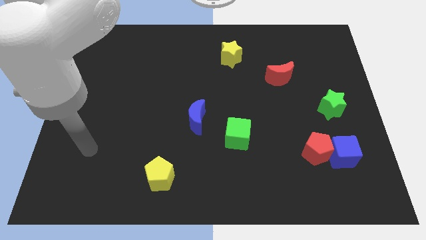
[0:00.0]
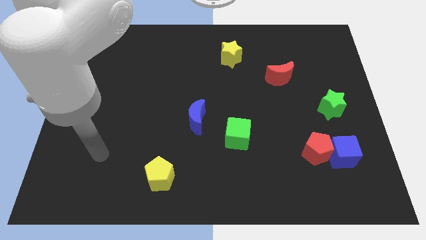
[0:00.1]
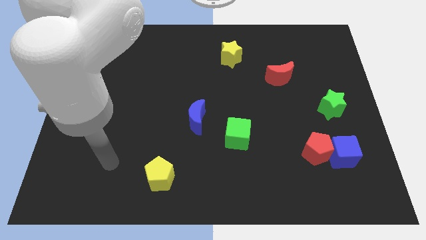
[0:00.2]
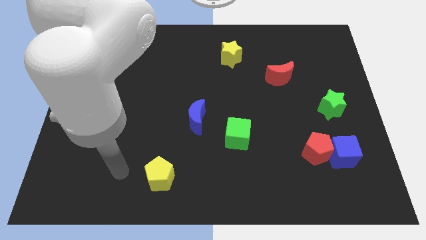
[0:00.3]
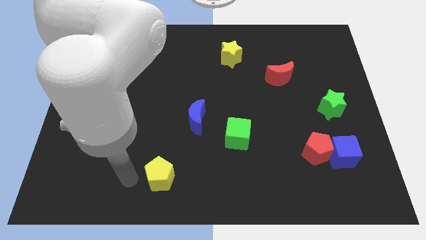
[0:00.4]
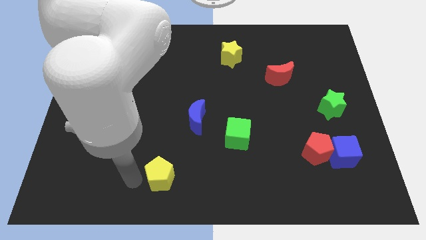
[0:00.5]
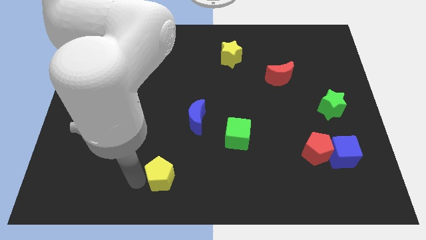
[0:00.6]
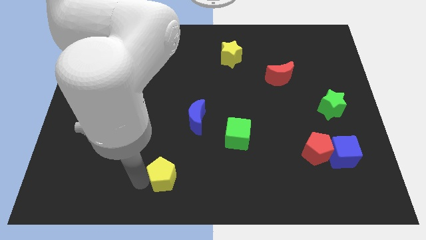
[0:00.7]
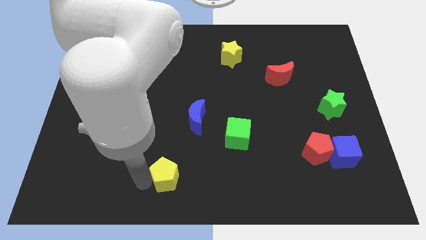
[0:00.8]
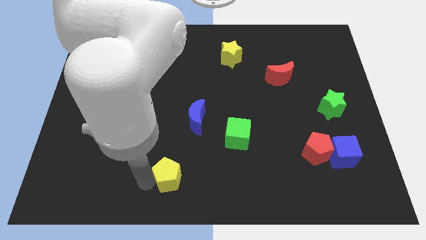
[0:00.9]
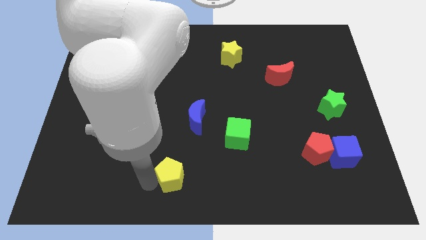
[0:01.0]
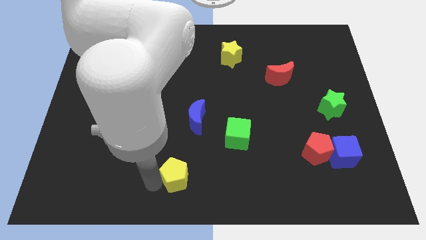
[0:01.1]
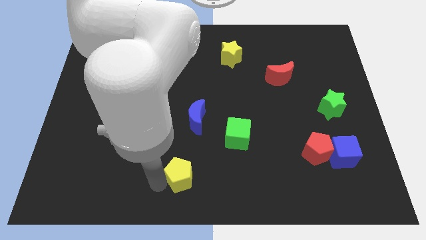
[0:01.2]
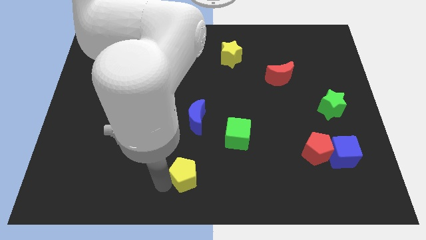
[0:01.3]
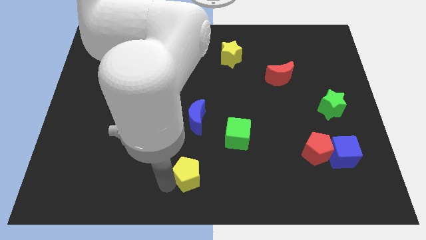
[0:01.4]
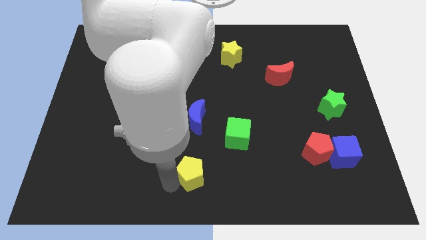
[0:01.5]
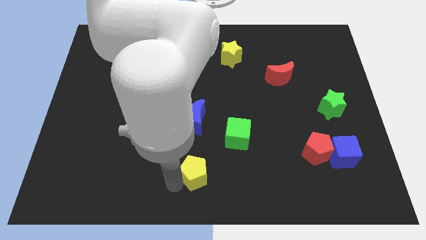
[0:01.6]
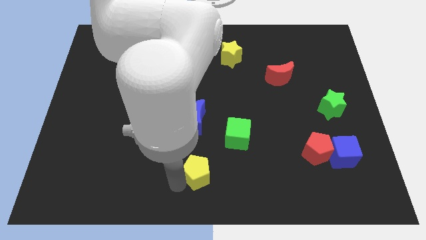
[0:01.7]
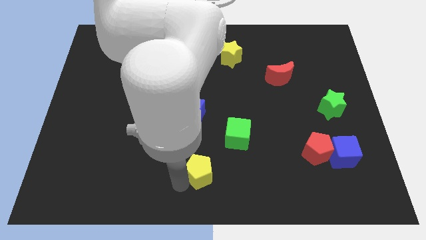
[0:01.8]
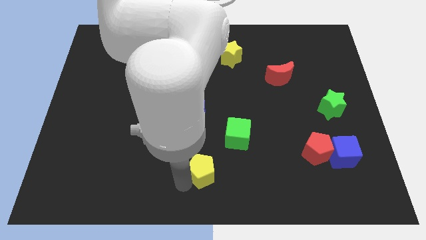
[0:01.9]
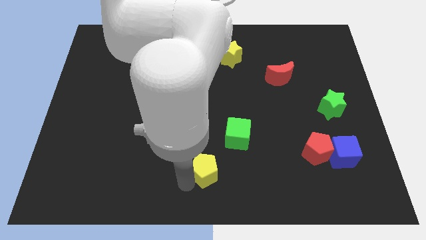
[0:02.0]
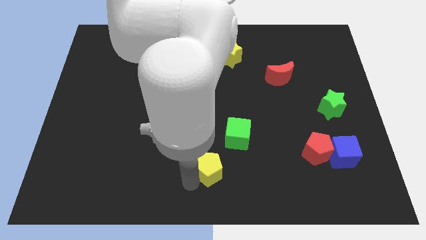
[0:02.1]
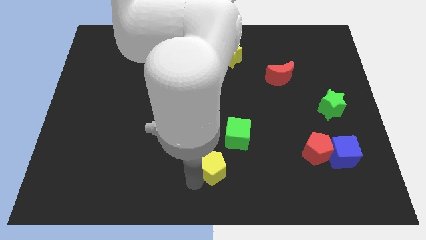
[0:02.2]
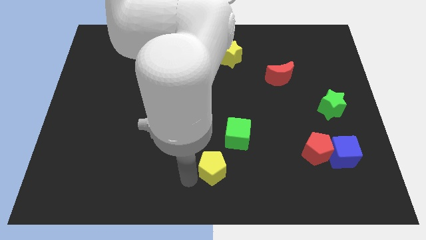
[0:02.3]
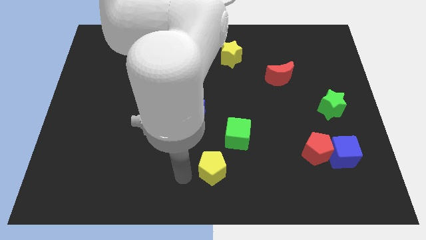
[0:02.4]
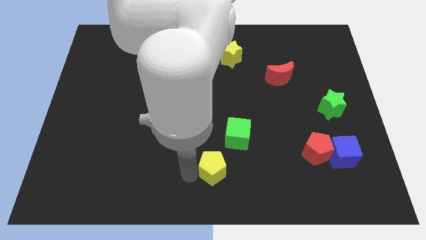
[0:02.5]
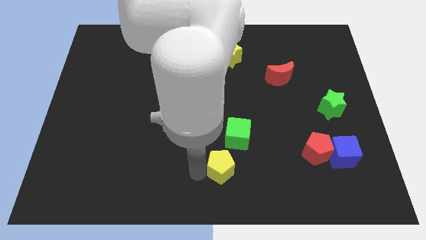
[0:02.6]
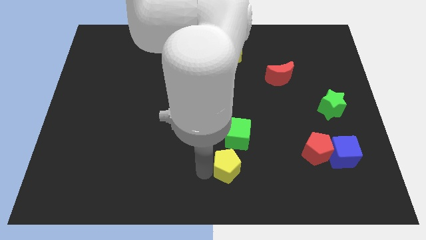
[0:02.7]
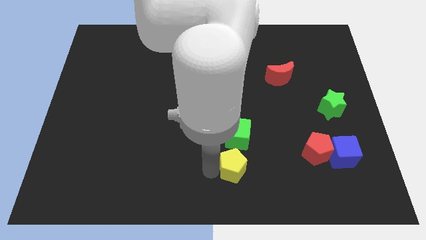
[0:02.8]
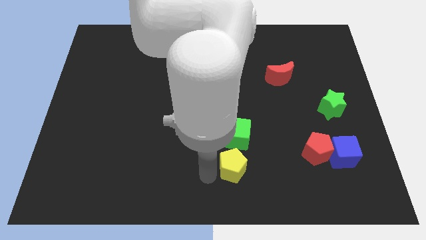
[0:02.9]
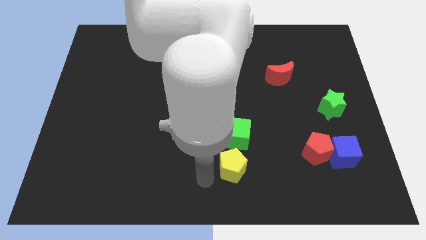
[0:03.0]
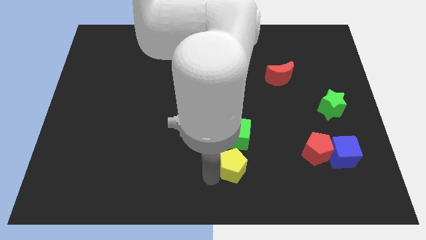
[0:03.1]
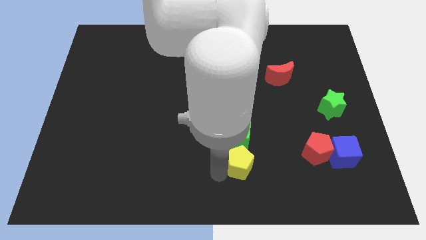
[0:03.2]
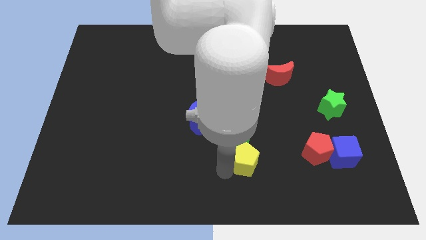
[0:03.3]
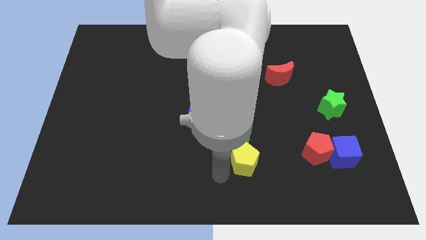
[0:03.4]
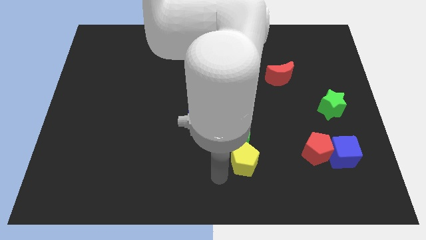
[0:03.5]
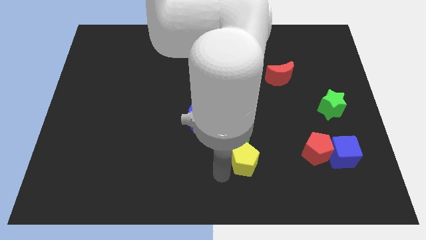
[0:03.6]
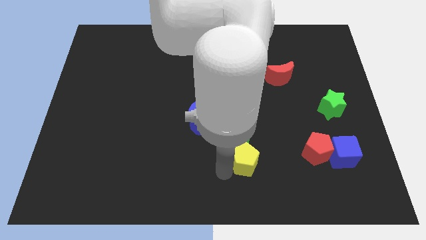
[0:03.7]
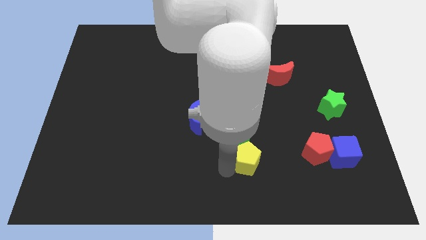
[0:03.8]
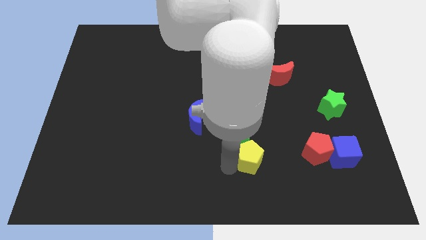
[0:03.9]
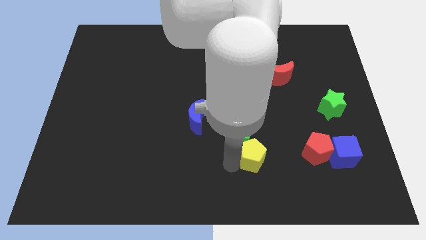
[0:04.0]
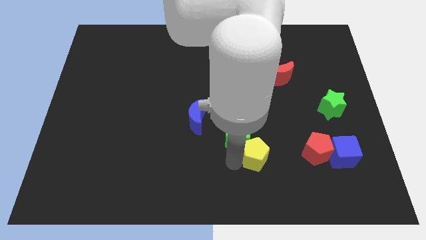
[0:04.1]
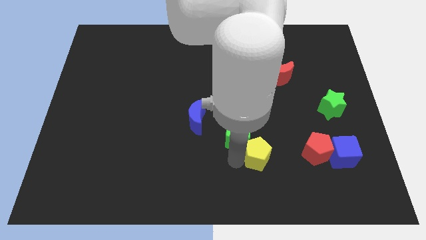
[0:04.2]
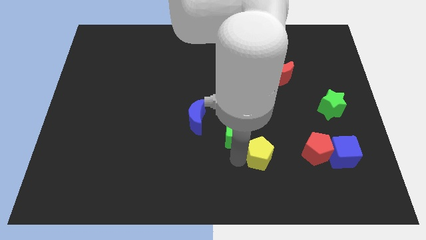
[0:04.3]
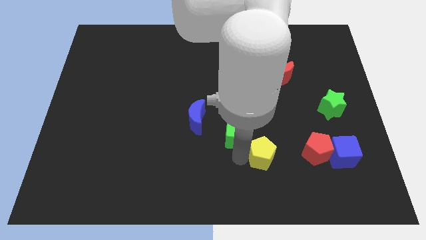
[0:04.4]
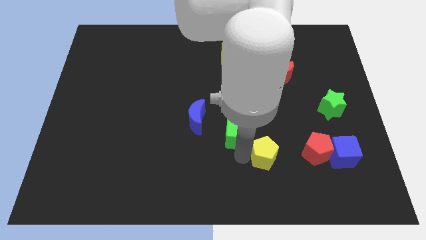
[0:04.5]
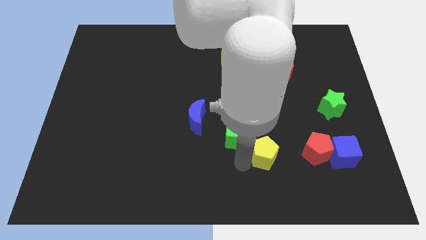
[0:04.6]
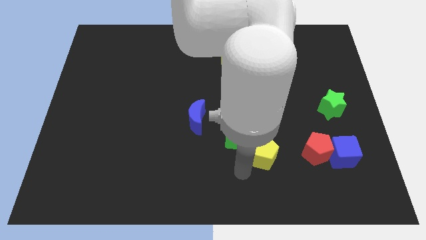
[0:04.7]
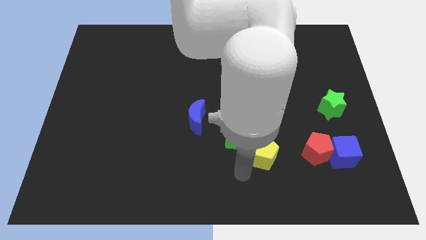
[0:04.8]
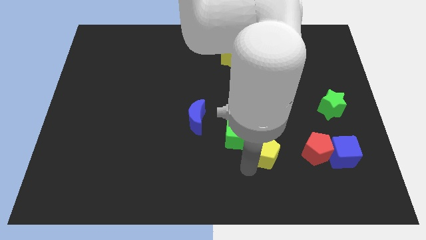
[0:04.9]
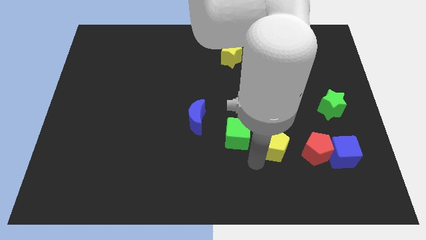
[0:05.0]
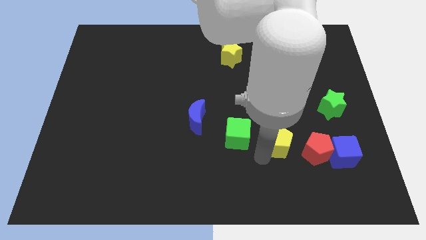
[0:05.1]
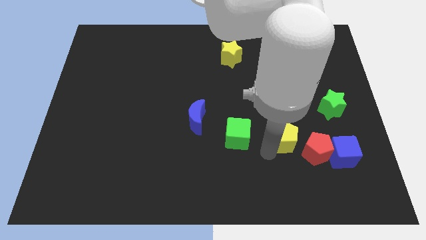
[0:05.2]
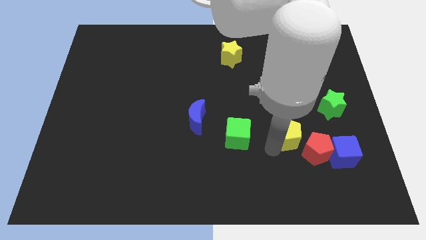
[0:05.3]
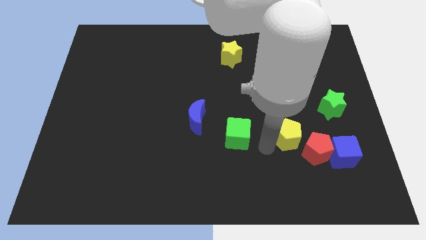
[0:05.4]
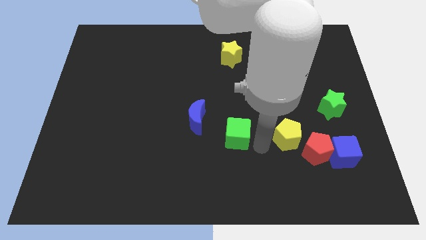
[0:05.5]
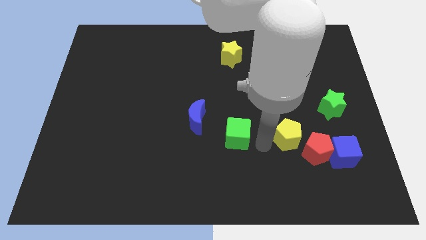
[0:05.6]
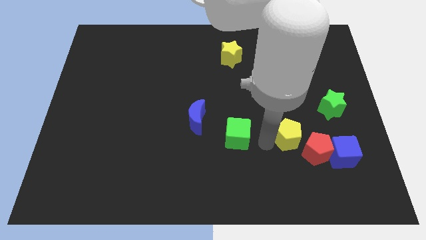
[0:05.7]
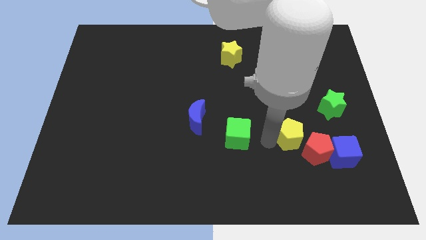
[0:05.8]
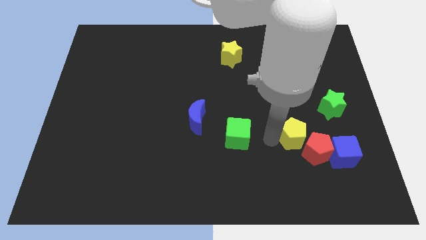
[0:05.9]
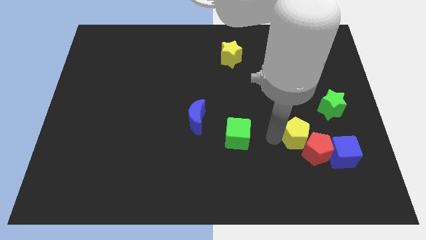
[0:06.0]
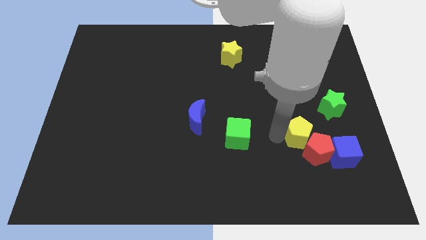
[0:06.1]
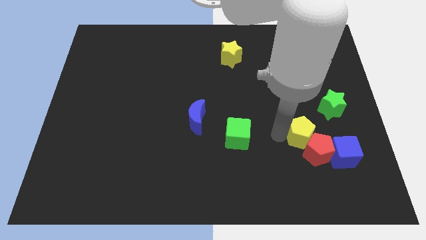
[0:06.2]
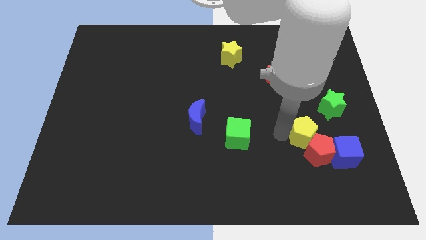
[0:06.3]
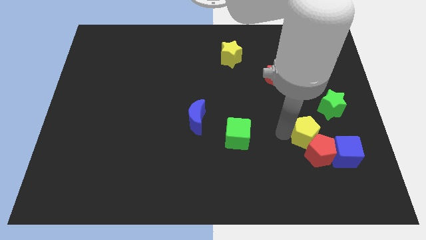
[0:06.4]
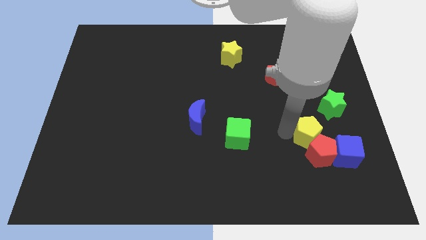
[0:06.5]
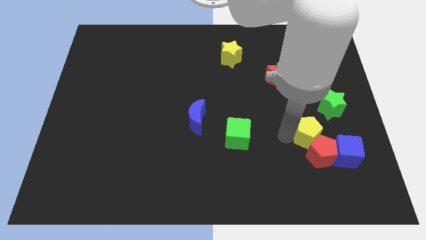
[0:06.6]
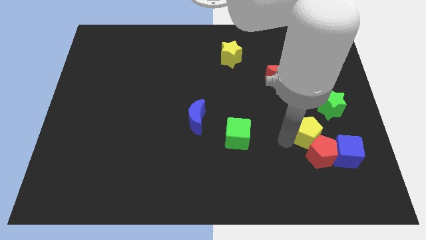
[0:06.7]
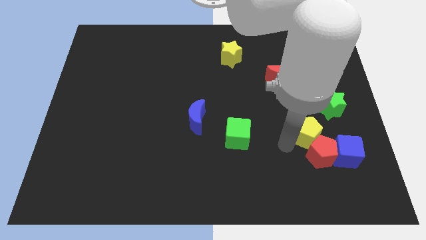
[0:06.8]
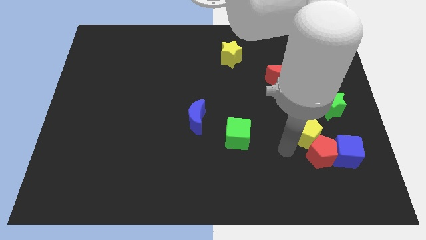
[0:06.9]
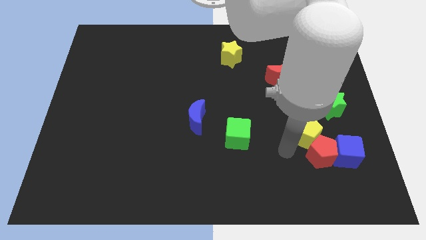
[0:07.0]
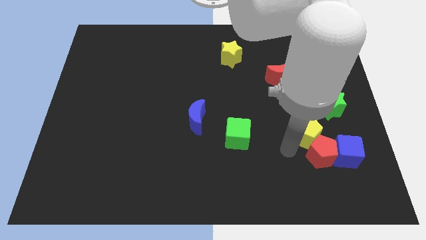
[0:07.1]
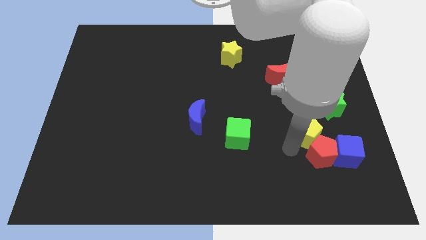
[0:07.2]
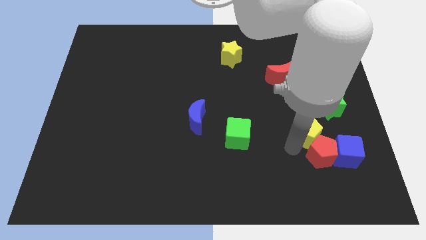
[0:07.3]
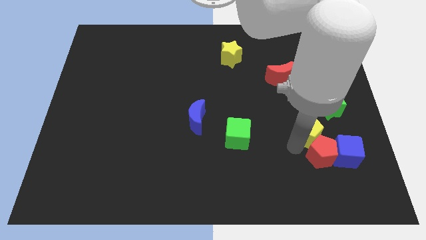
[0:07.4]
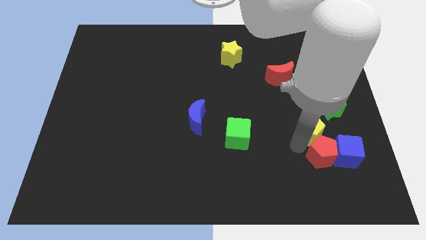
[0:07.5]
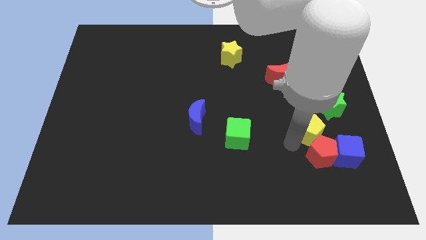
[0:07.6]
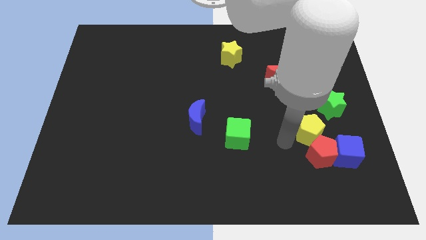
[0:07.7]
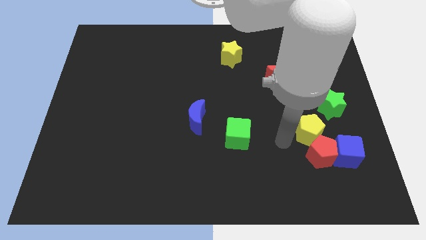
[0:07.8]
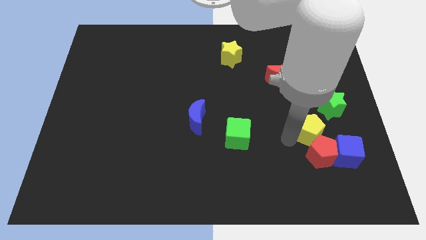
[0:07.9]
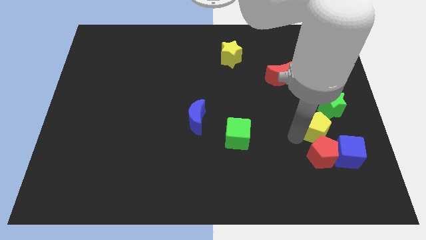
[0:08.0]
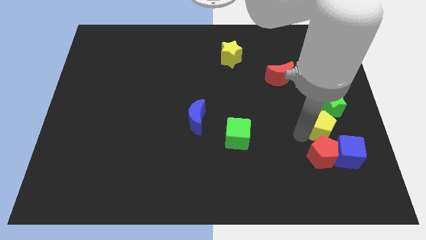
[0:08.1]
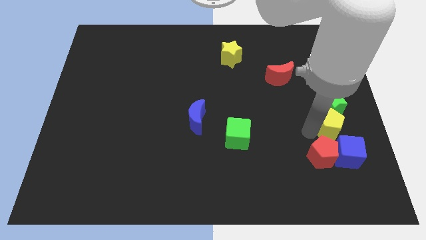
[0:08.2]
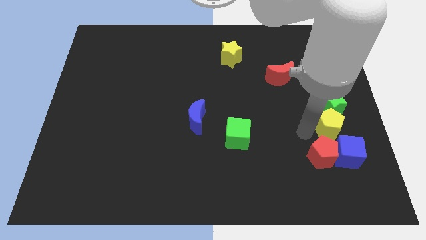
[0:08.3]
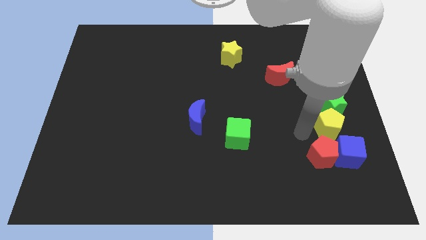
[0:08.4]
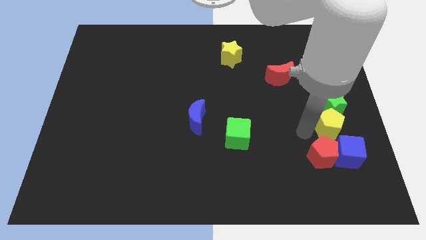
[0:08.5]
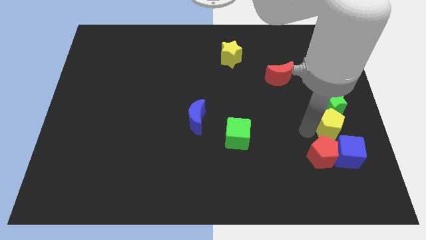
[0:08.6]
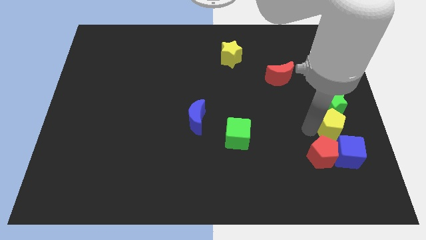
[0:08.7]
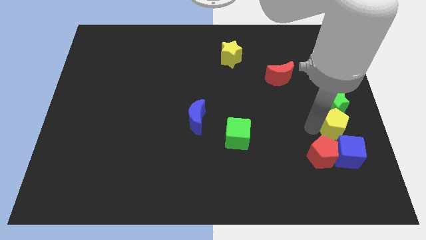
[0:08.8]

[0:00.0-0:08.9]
move the yellow pentagon to the center right
